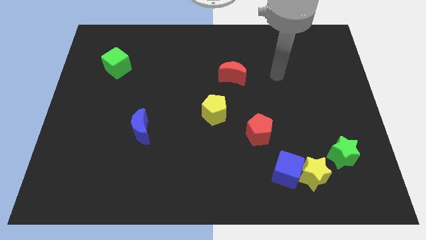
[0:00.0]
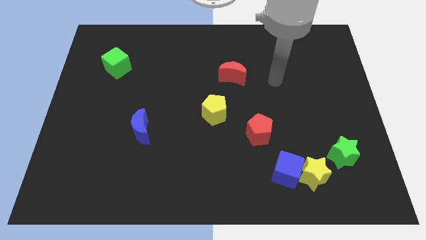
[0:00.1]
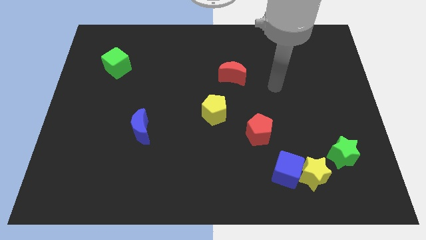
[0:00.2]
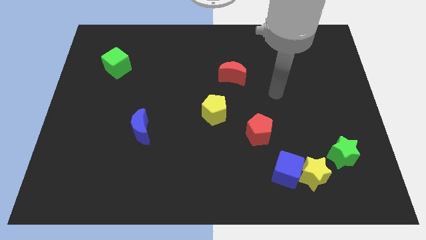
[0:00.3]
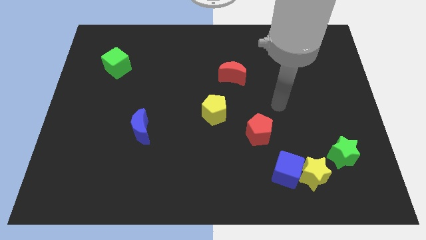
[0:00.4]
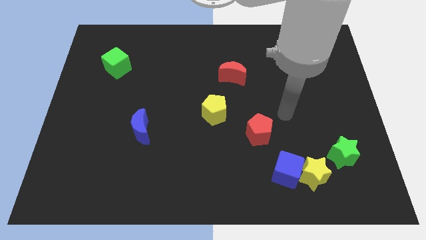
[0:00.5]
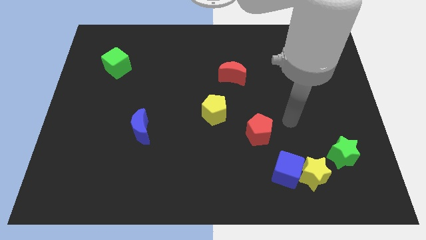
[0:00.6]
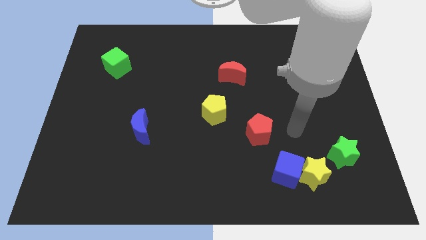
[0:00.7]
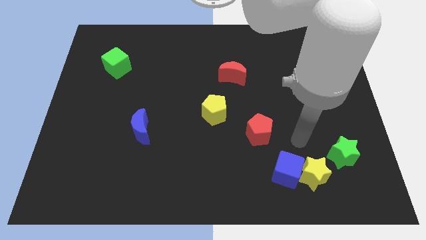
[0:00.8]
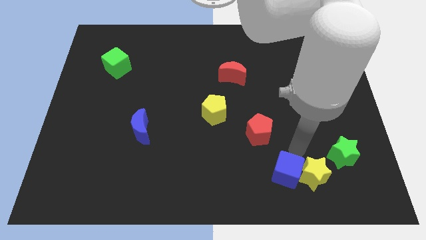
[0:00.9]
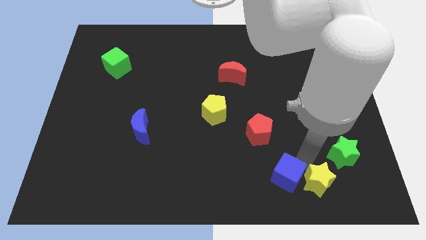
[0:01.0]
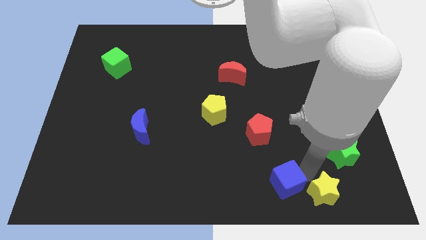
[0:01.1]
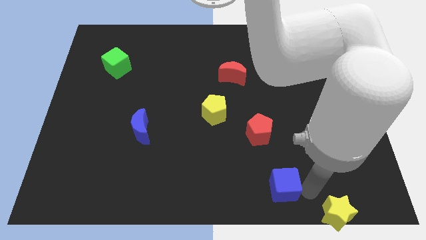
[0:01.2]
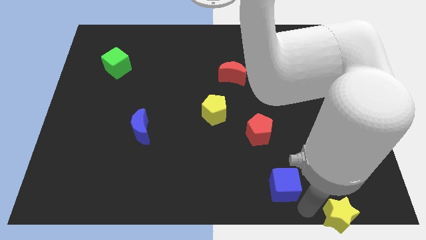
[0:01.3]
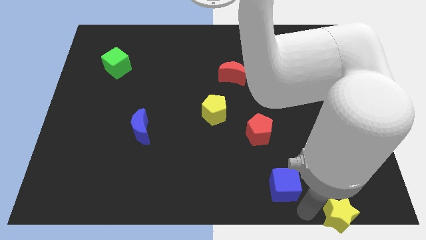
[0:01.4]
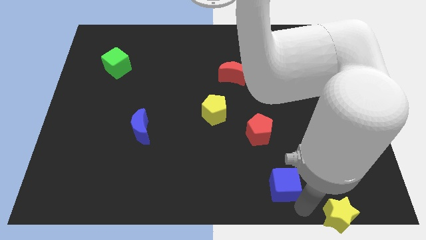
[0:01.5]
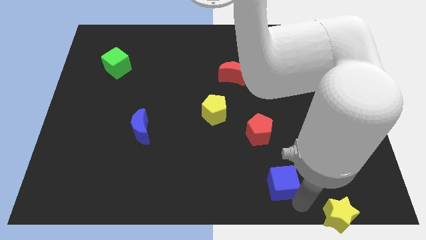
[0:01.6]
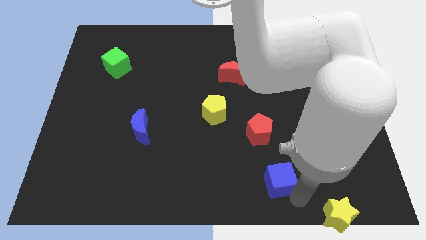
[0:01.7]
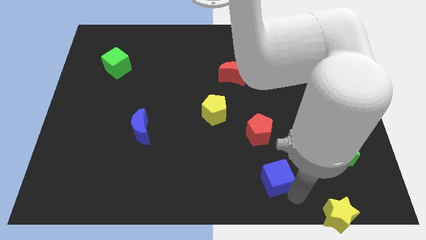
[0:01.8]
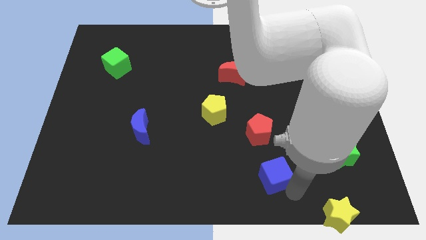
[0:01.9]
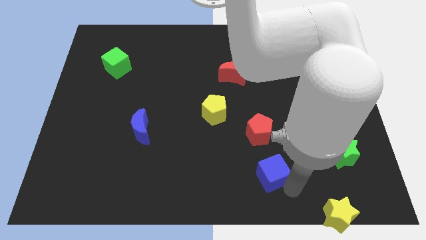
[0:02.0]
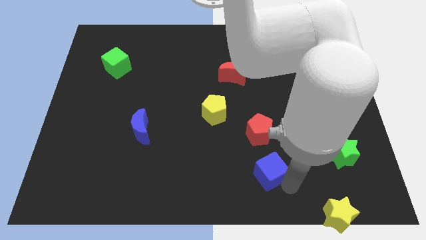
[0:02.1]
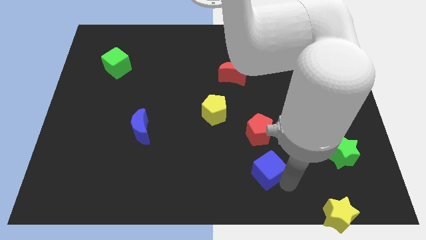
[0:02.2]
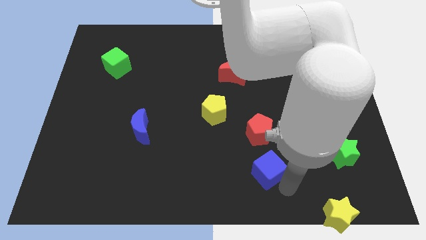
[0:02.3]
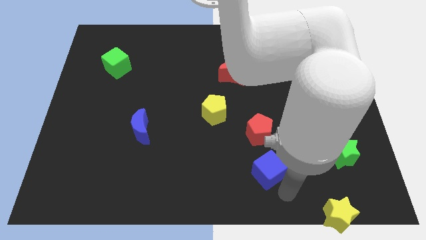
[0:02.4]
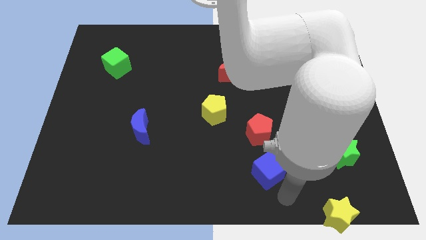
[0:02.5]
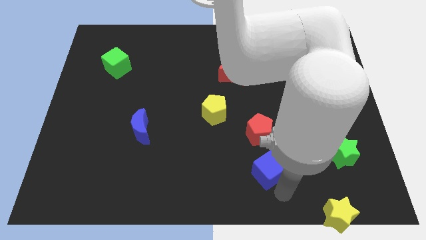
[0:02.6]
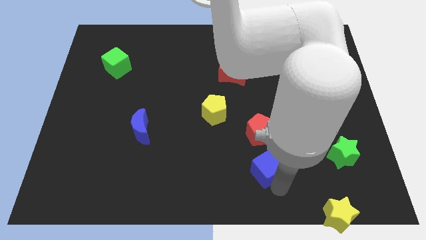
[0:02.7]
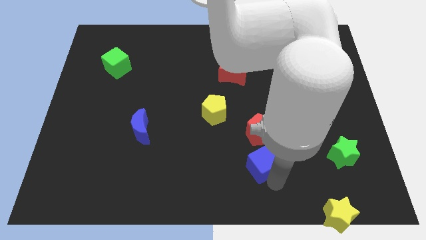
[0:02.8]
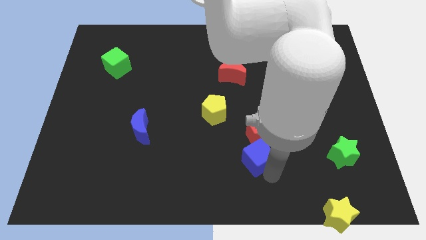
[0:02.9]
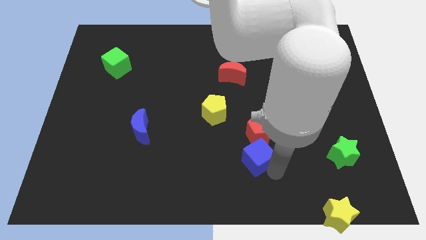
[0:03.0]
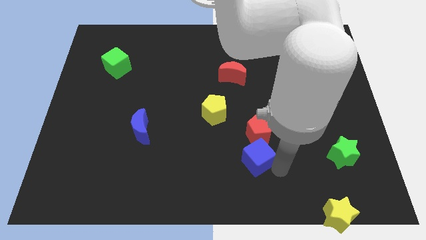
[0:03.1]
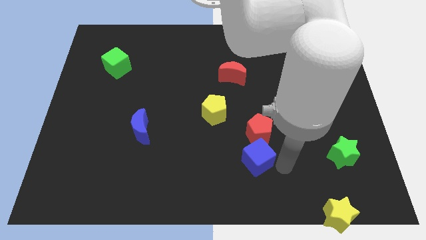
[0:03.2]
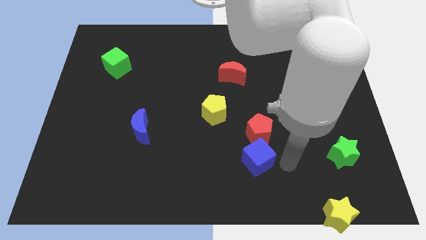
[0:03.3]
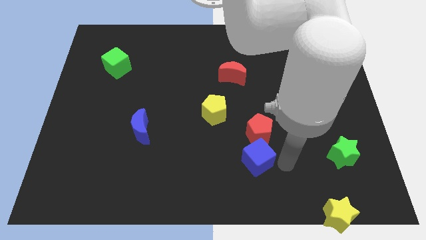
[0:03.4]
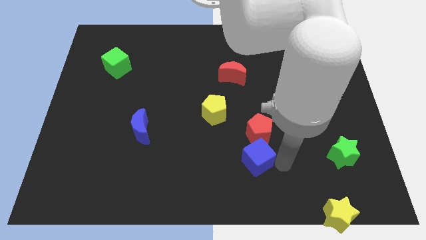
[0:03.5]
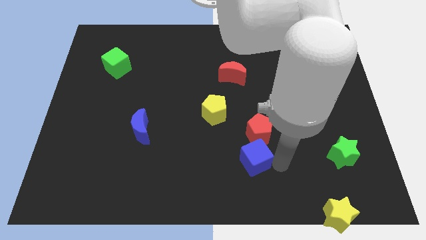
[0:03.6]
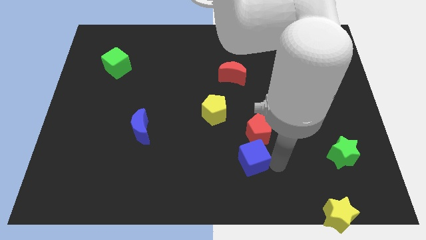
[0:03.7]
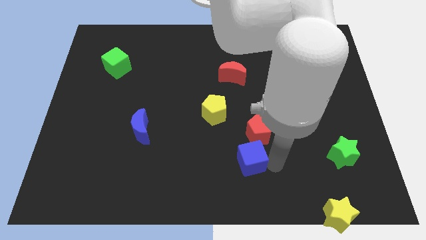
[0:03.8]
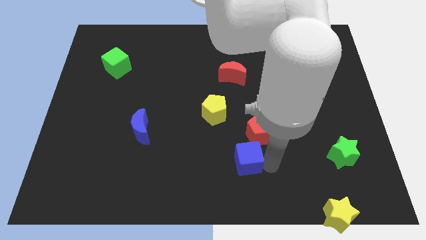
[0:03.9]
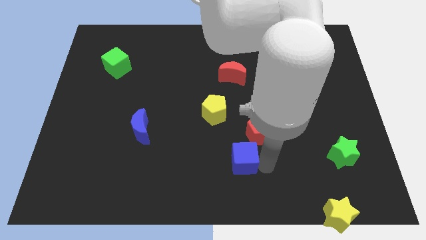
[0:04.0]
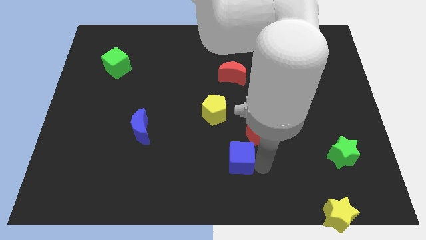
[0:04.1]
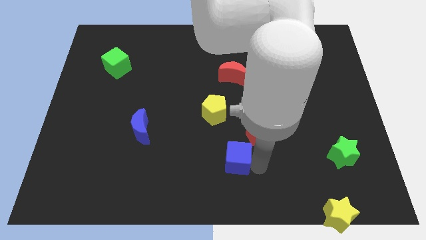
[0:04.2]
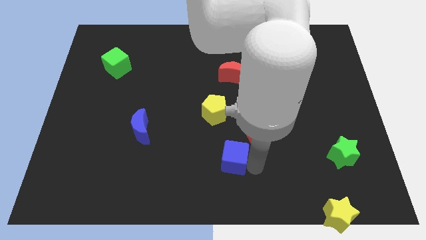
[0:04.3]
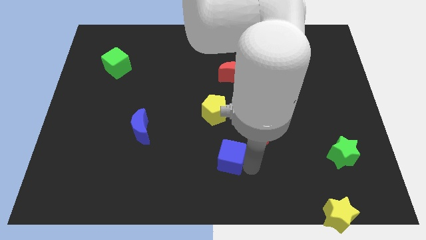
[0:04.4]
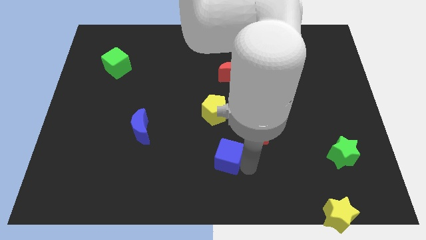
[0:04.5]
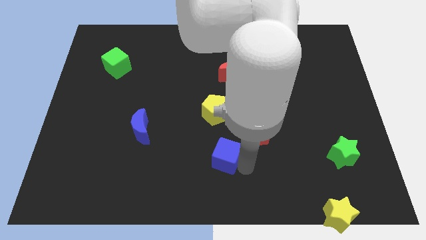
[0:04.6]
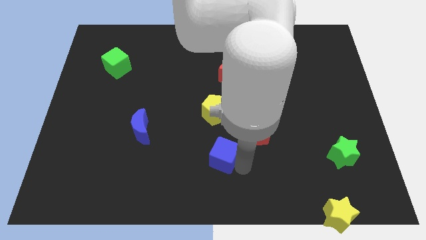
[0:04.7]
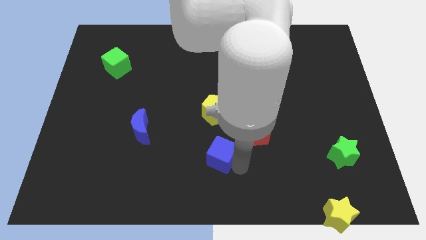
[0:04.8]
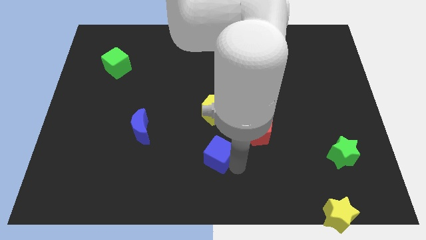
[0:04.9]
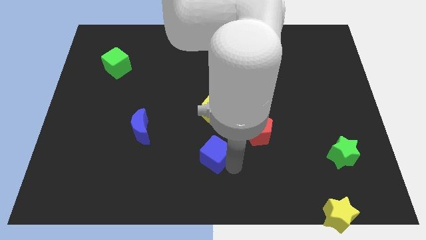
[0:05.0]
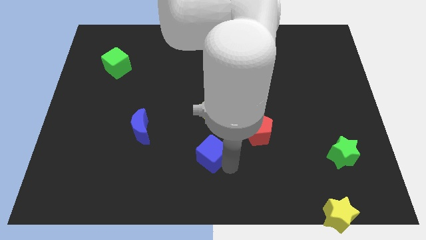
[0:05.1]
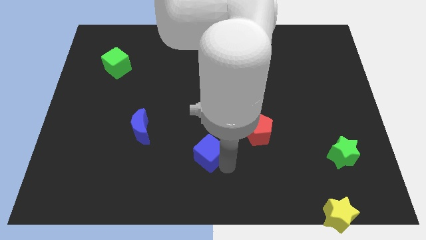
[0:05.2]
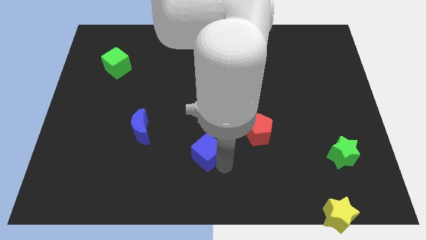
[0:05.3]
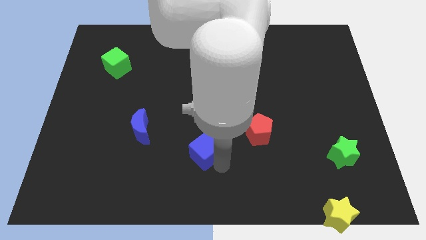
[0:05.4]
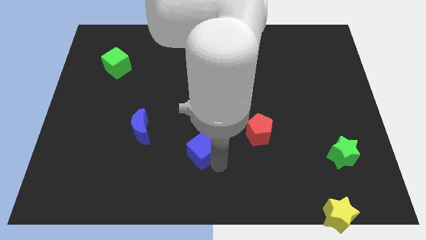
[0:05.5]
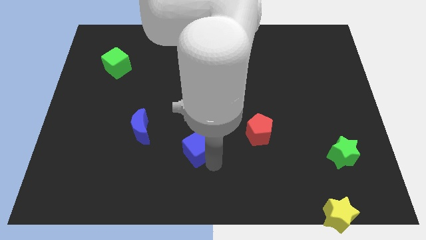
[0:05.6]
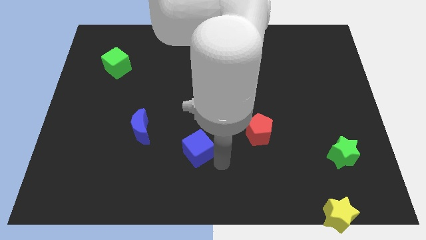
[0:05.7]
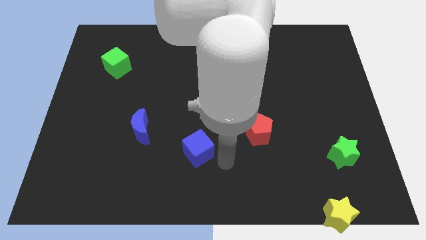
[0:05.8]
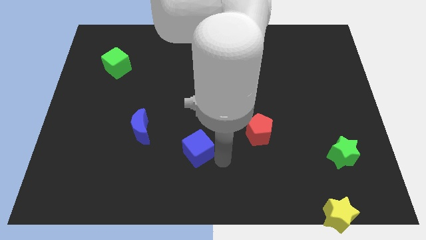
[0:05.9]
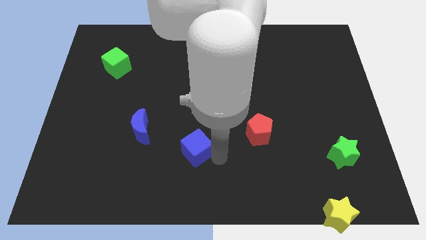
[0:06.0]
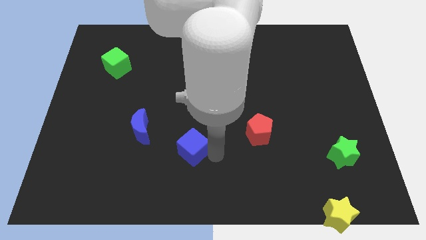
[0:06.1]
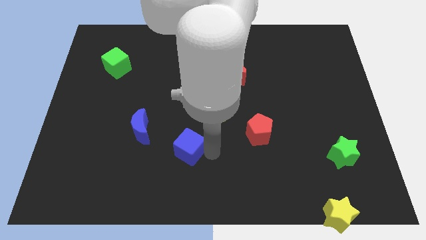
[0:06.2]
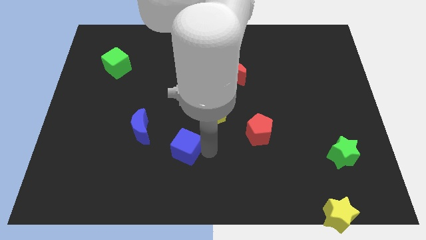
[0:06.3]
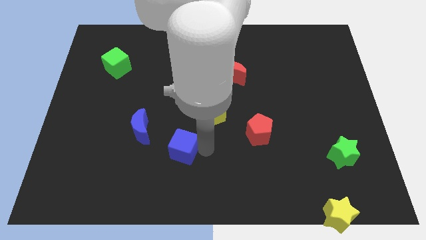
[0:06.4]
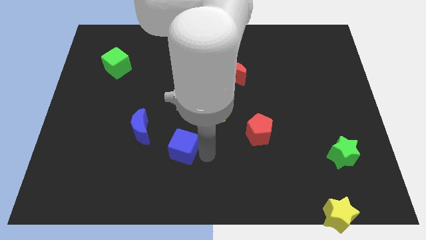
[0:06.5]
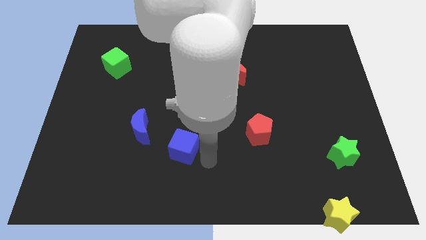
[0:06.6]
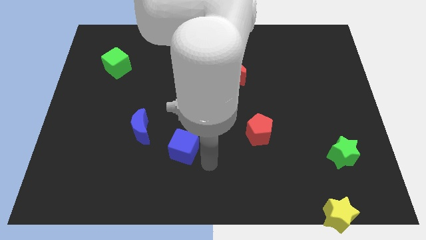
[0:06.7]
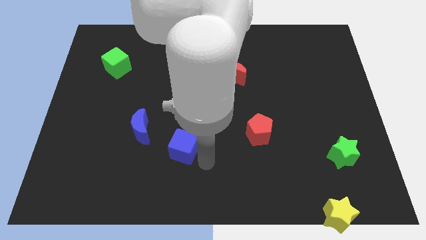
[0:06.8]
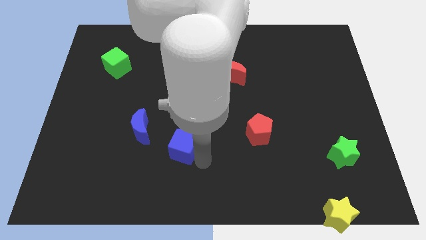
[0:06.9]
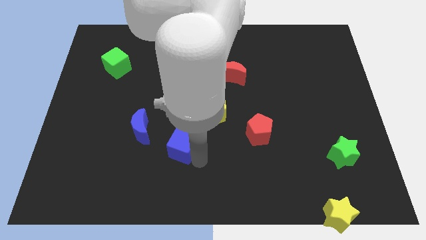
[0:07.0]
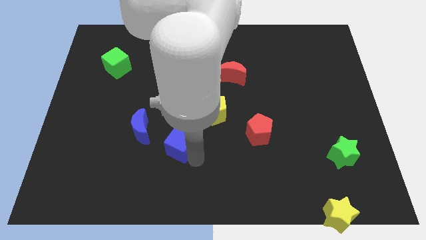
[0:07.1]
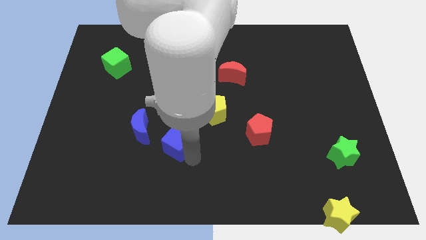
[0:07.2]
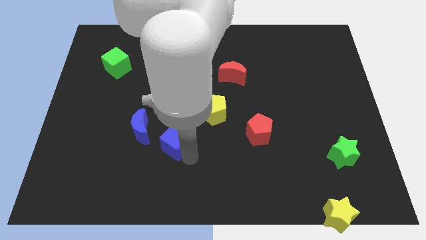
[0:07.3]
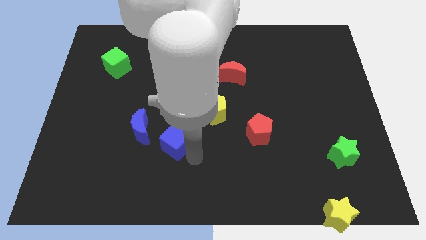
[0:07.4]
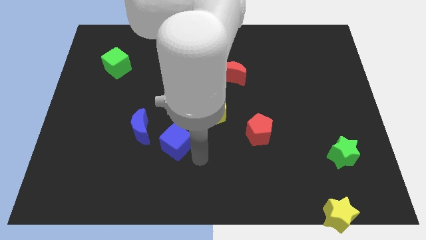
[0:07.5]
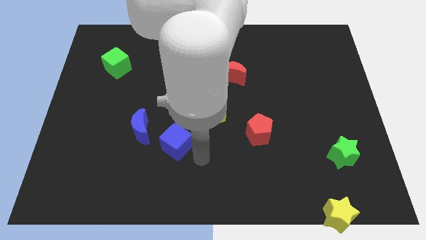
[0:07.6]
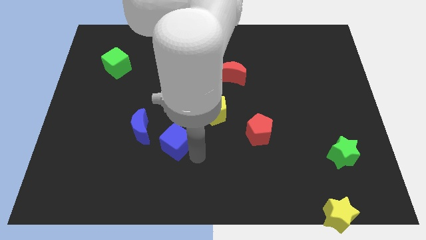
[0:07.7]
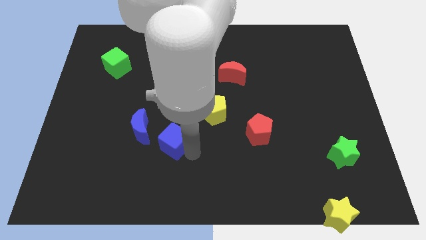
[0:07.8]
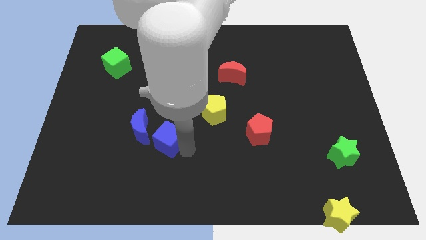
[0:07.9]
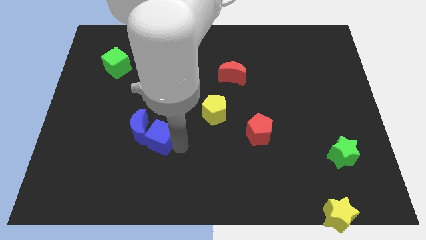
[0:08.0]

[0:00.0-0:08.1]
put the blue cube close to the blue moon
